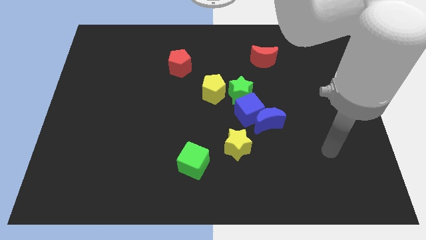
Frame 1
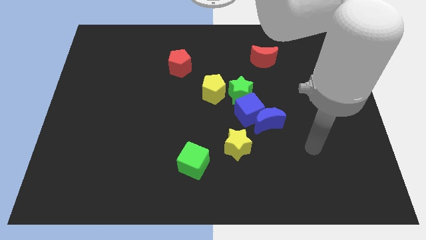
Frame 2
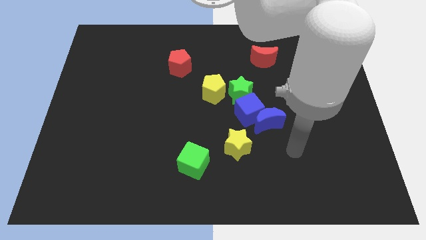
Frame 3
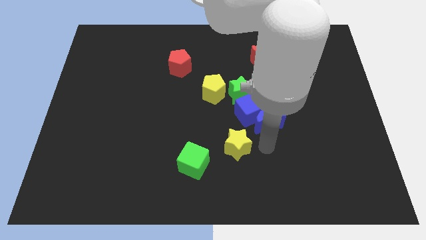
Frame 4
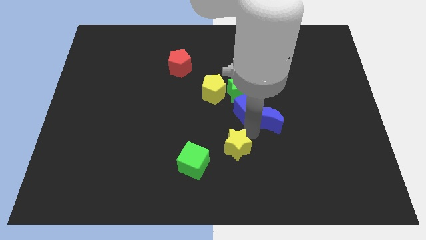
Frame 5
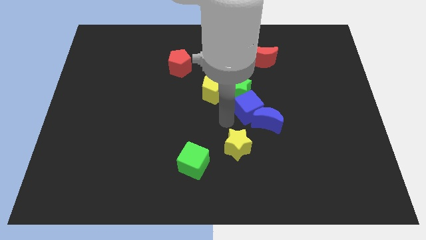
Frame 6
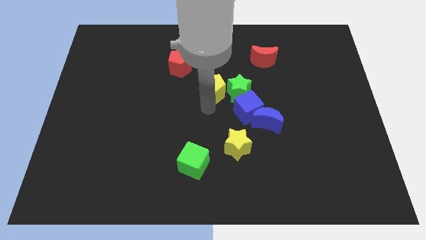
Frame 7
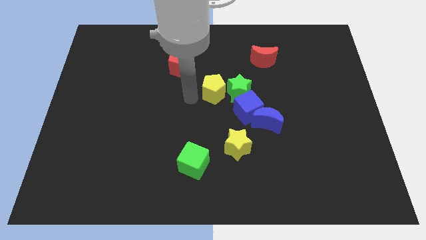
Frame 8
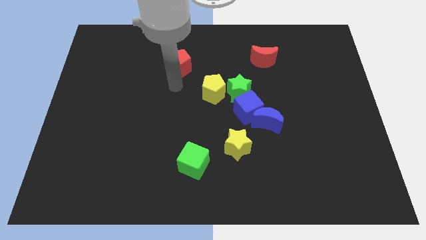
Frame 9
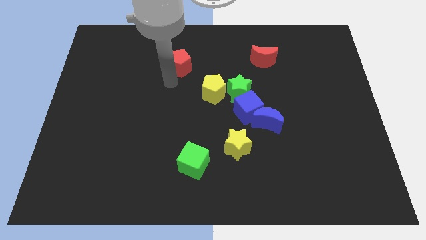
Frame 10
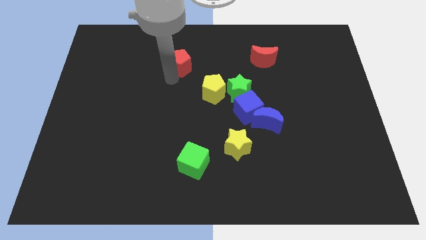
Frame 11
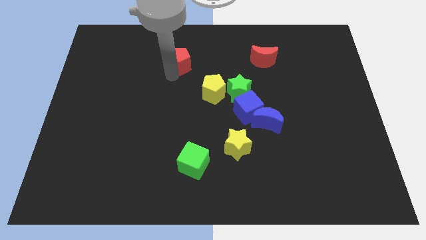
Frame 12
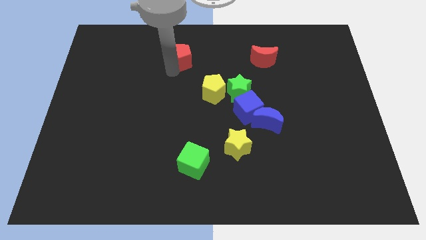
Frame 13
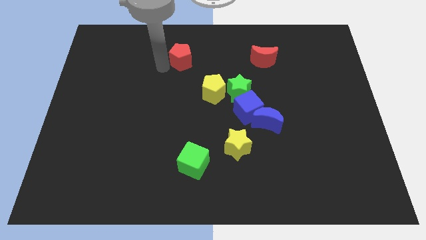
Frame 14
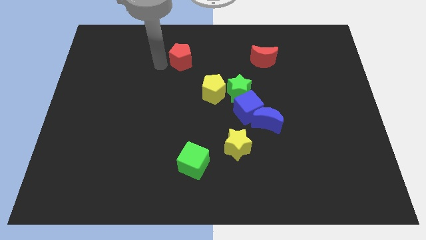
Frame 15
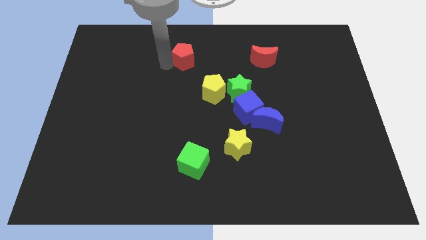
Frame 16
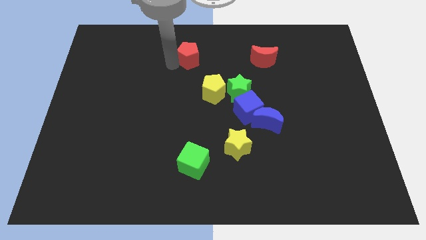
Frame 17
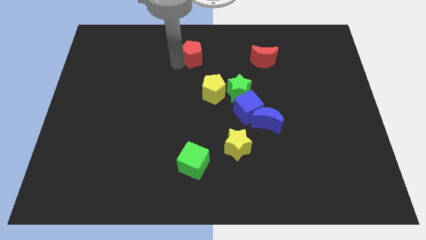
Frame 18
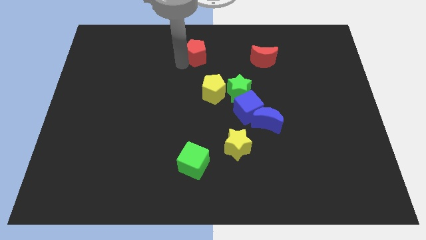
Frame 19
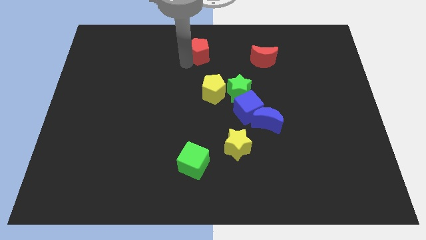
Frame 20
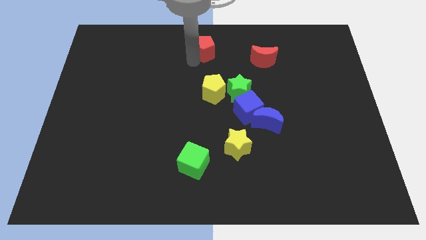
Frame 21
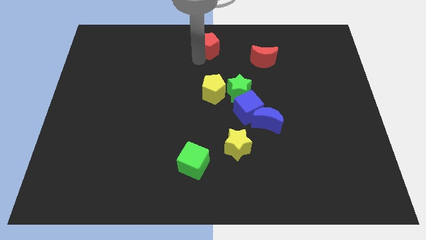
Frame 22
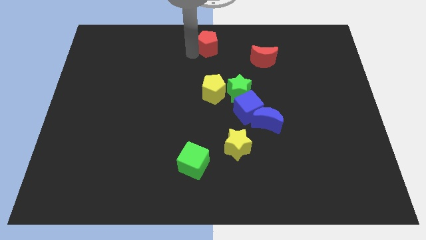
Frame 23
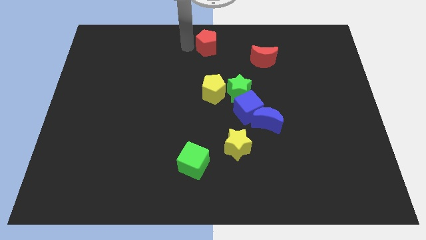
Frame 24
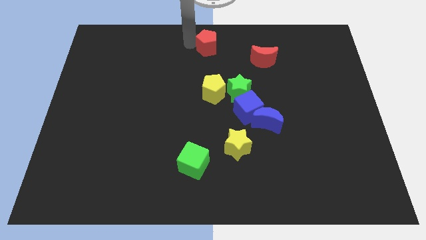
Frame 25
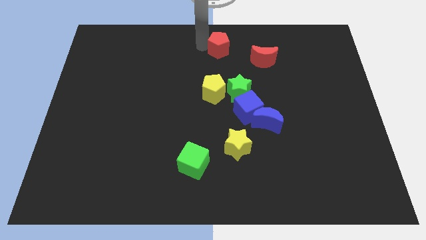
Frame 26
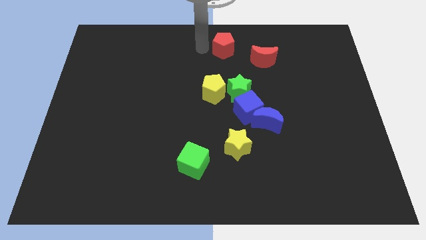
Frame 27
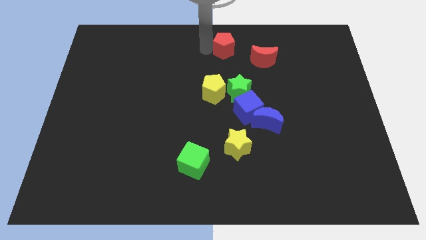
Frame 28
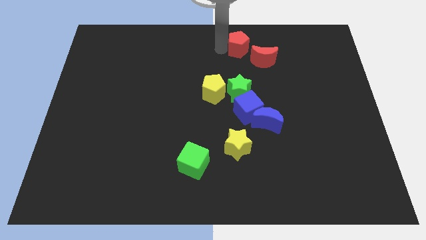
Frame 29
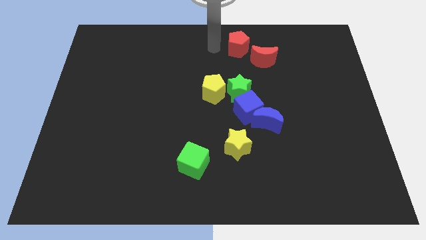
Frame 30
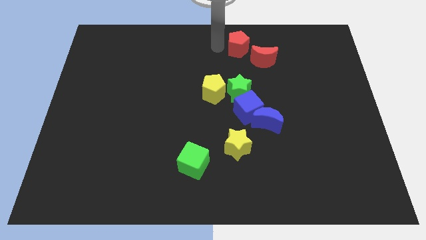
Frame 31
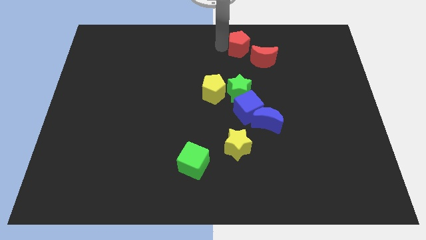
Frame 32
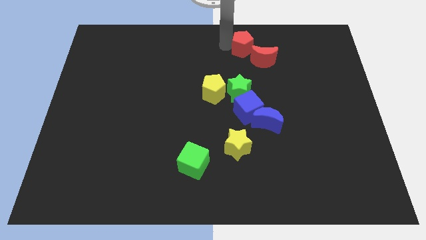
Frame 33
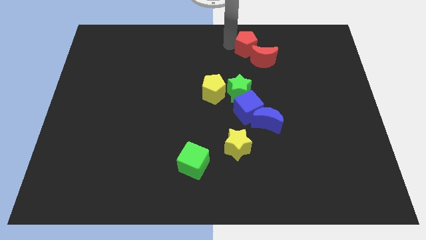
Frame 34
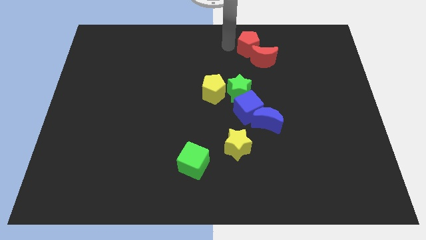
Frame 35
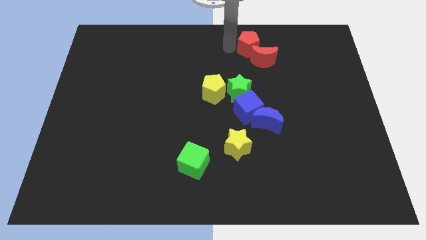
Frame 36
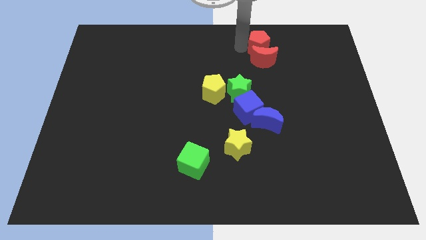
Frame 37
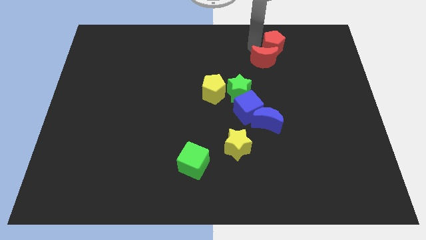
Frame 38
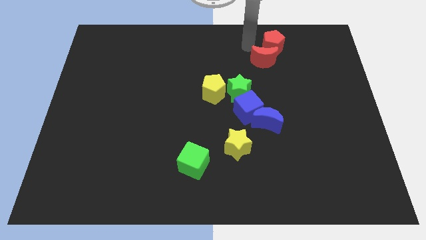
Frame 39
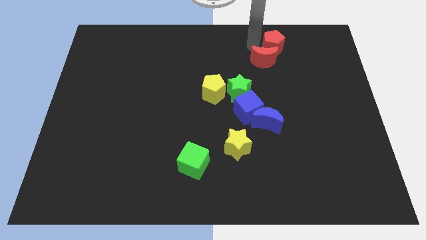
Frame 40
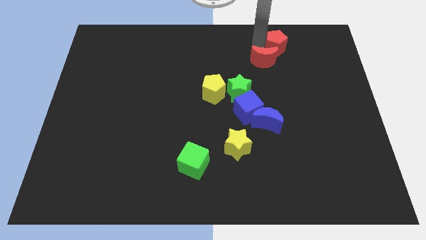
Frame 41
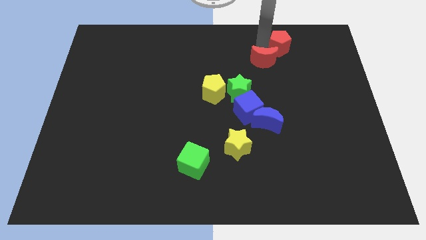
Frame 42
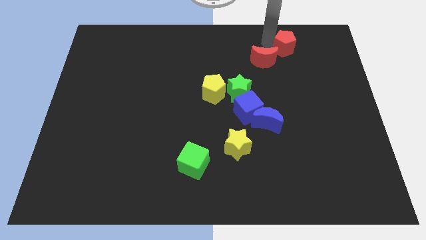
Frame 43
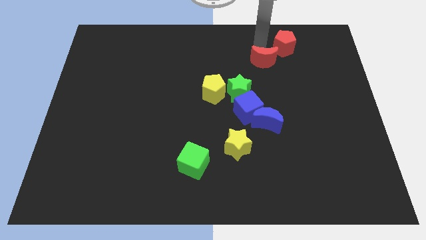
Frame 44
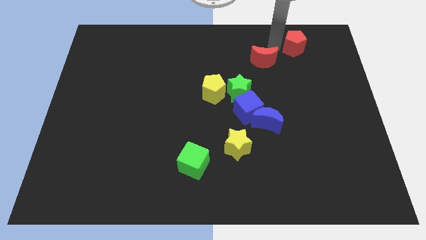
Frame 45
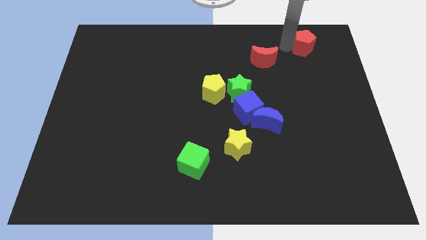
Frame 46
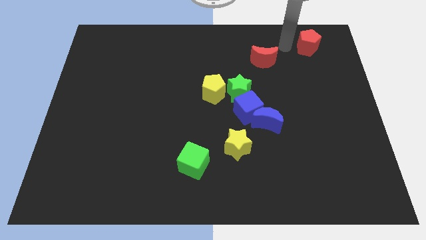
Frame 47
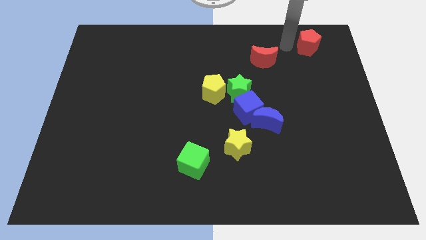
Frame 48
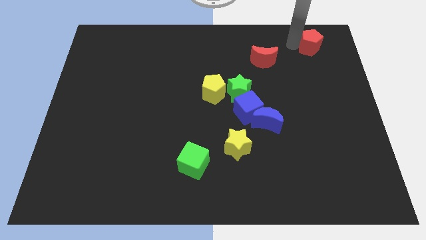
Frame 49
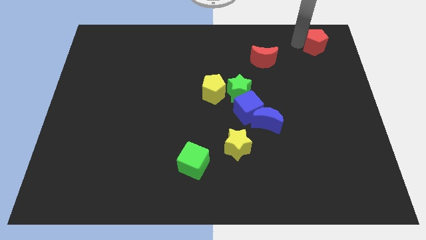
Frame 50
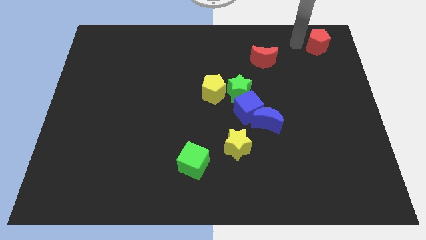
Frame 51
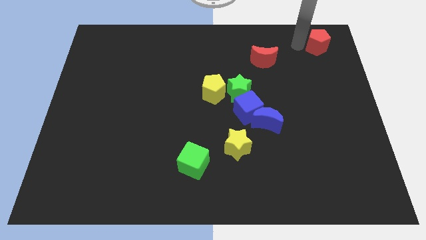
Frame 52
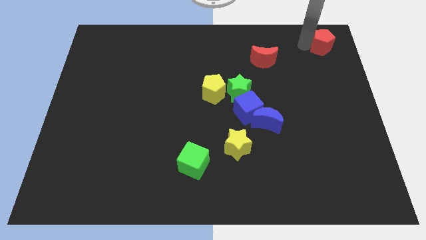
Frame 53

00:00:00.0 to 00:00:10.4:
put the red pentagon to the upper right corner
